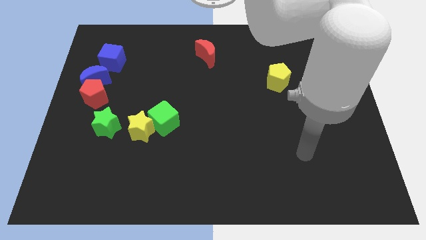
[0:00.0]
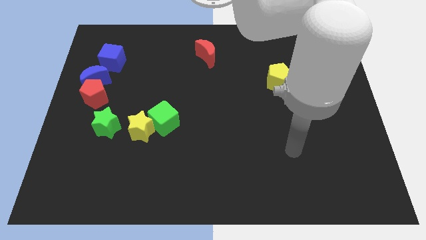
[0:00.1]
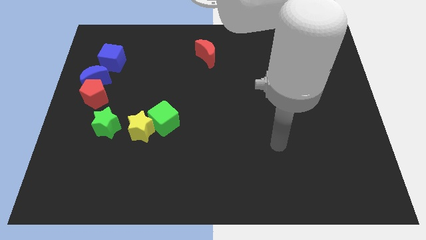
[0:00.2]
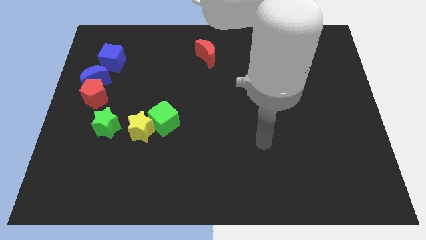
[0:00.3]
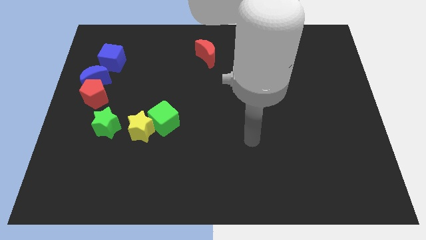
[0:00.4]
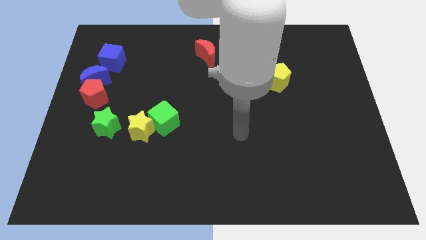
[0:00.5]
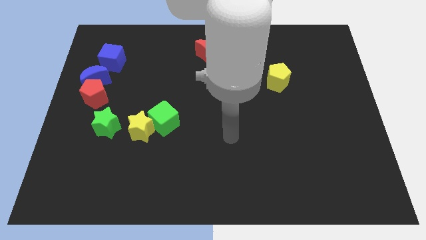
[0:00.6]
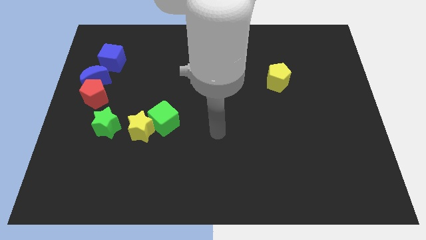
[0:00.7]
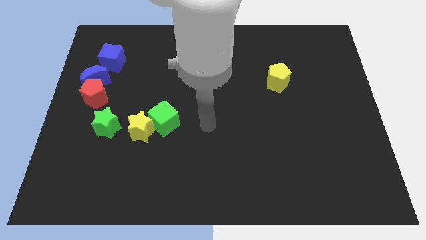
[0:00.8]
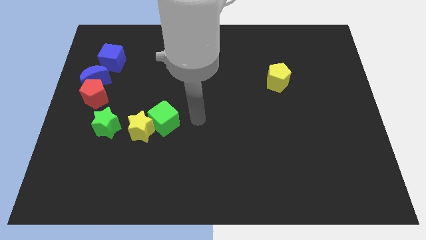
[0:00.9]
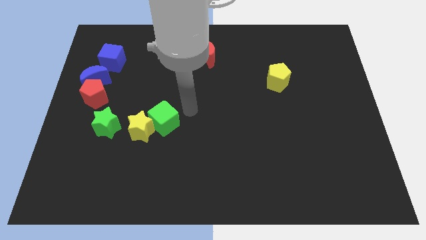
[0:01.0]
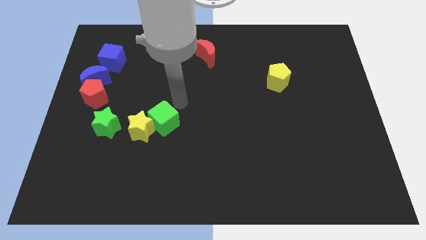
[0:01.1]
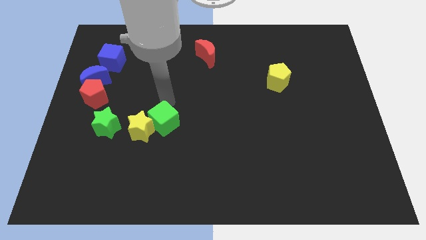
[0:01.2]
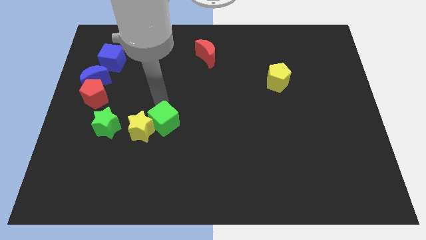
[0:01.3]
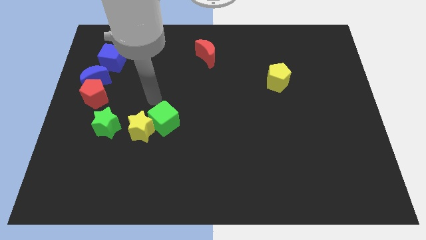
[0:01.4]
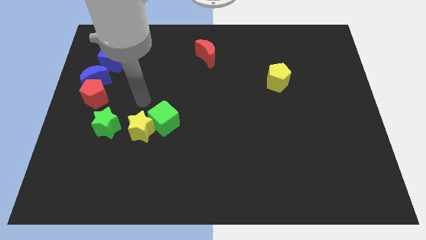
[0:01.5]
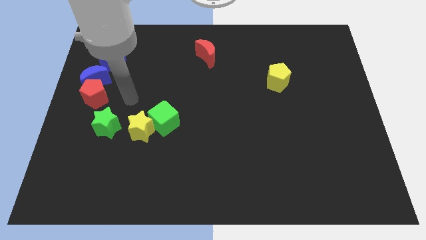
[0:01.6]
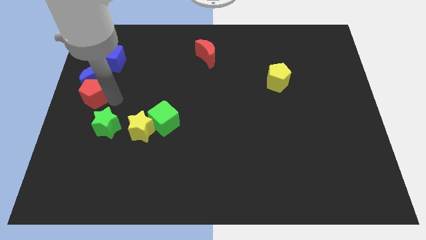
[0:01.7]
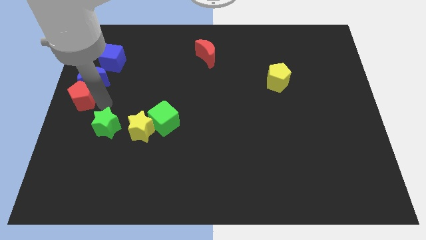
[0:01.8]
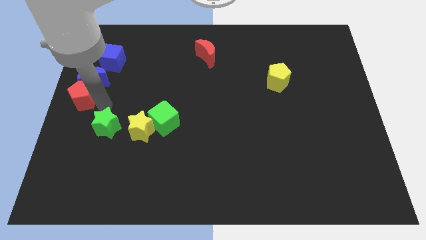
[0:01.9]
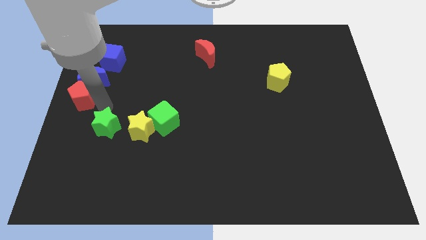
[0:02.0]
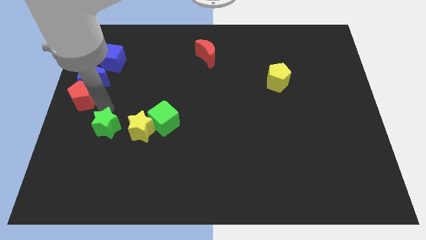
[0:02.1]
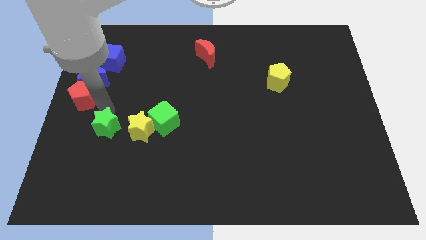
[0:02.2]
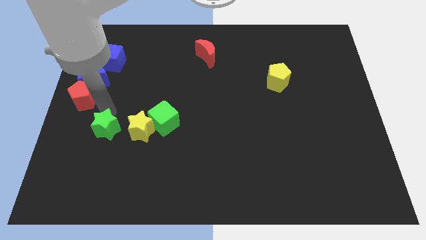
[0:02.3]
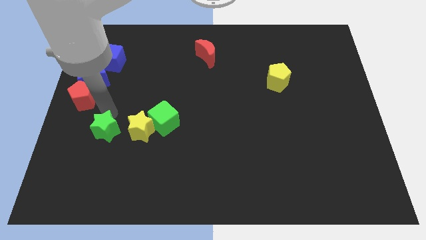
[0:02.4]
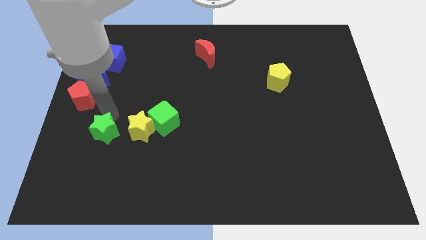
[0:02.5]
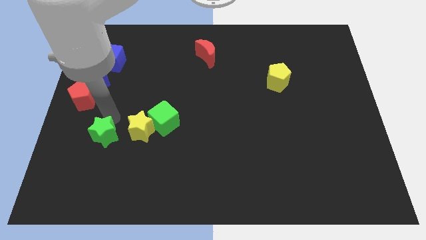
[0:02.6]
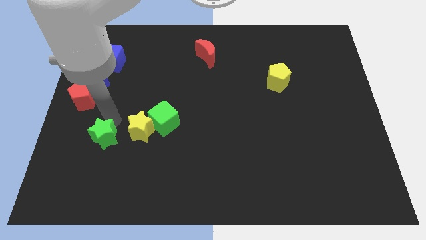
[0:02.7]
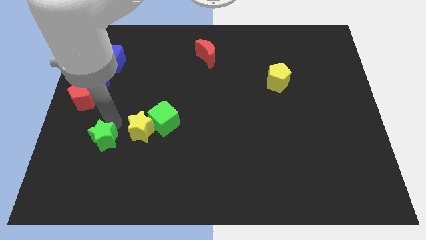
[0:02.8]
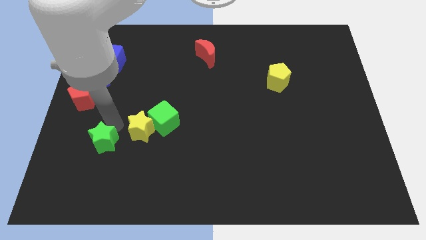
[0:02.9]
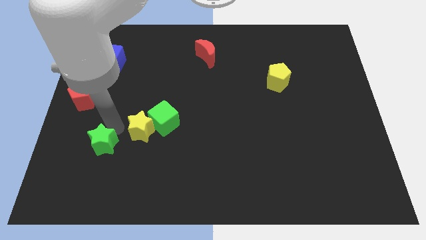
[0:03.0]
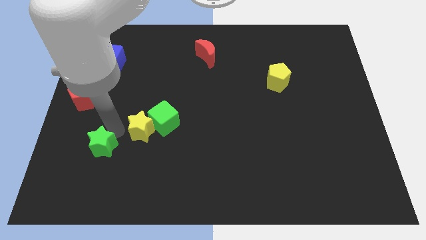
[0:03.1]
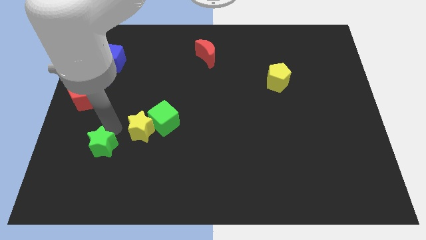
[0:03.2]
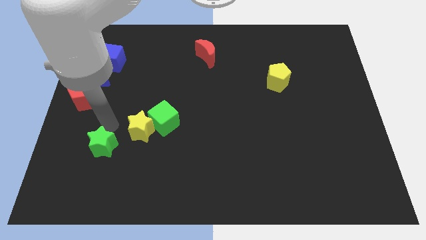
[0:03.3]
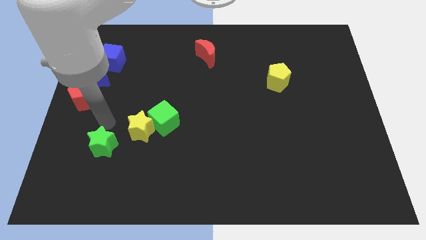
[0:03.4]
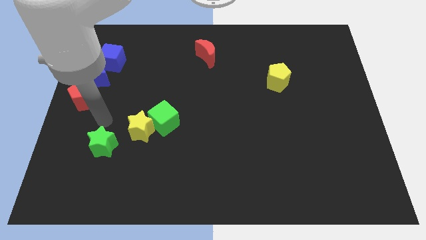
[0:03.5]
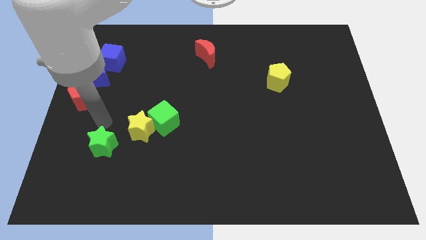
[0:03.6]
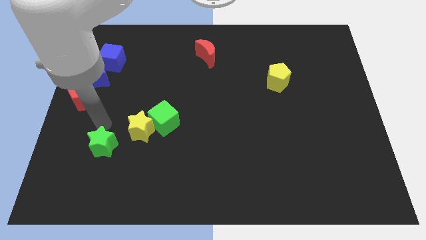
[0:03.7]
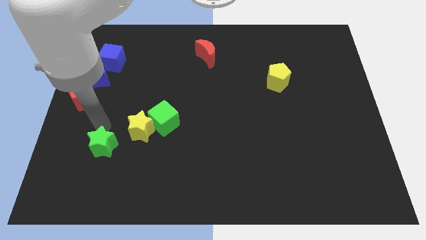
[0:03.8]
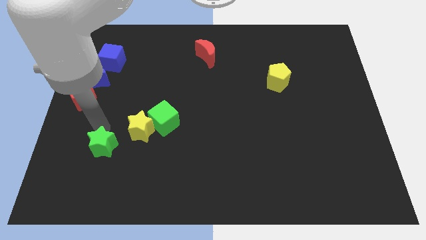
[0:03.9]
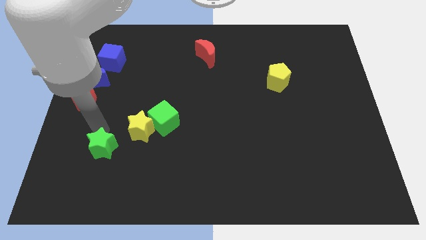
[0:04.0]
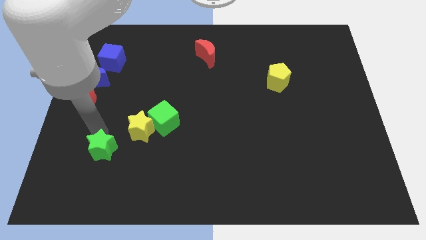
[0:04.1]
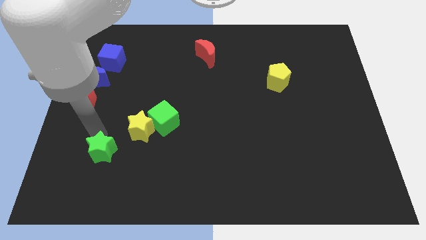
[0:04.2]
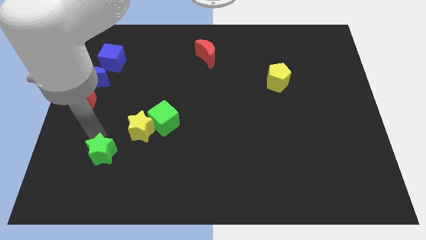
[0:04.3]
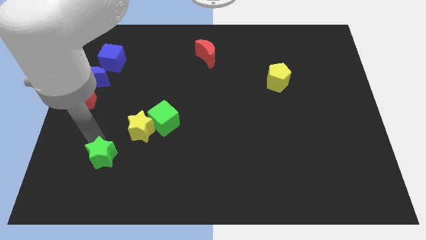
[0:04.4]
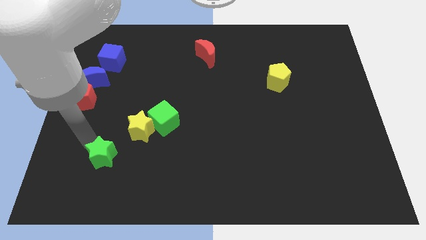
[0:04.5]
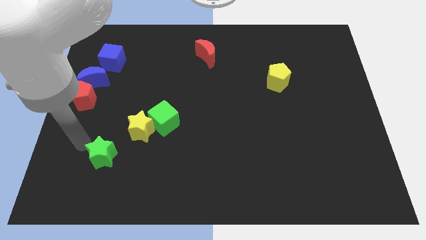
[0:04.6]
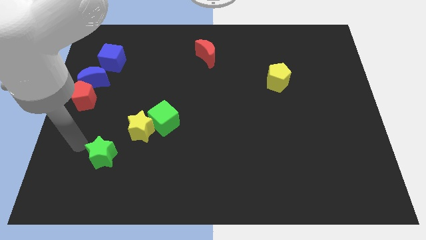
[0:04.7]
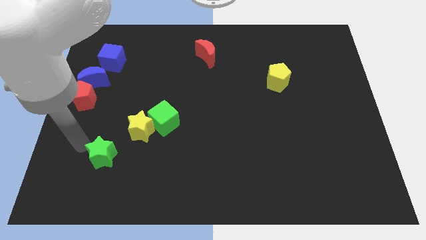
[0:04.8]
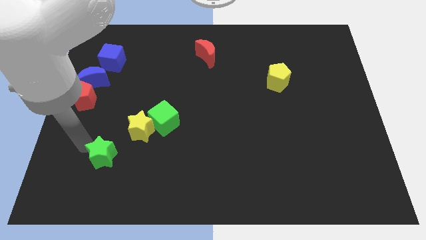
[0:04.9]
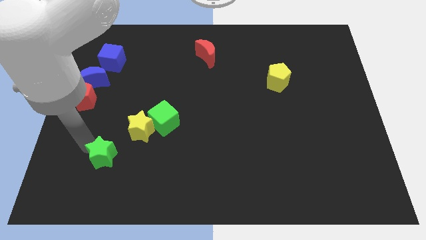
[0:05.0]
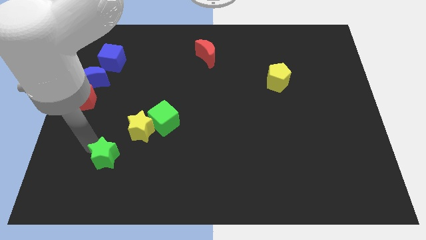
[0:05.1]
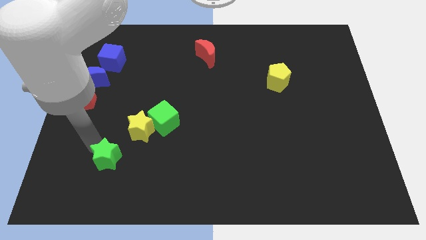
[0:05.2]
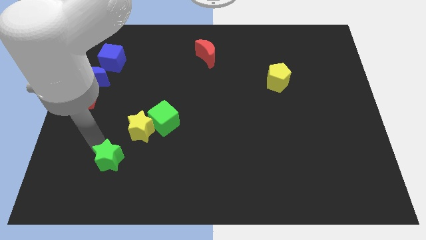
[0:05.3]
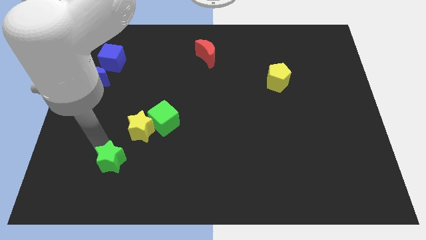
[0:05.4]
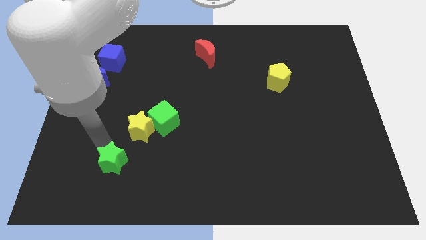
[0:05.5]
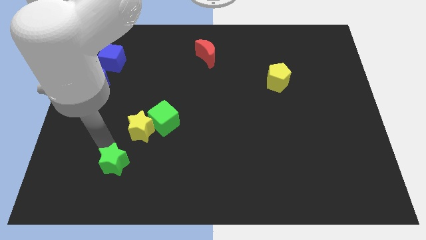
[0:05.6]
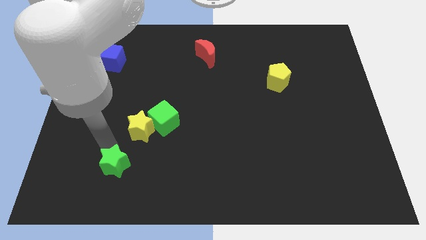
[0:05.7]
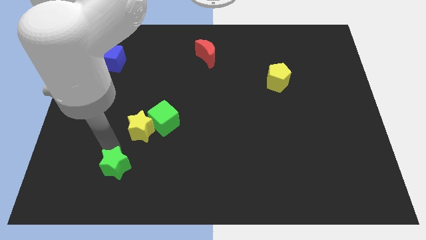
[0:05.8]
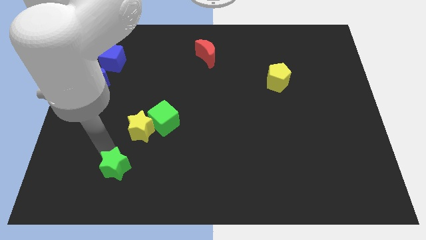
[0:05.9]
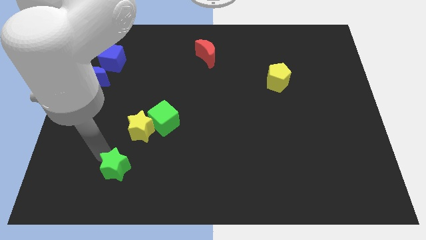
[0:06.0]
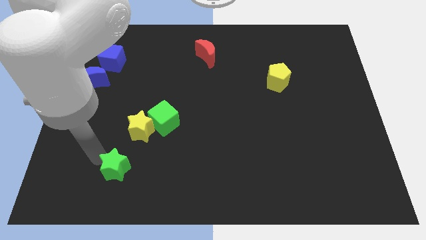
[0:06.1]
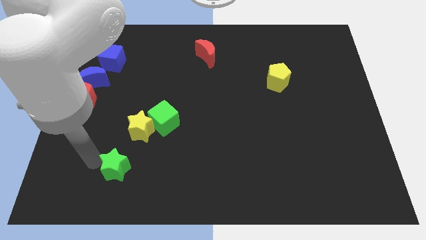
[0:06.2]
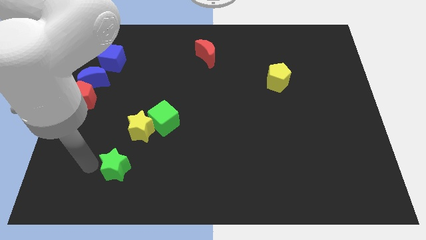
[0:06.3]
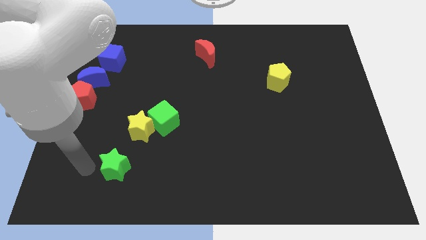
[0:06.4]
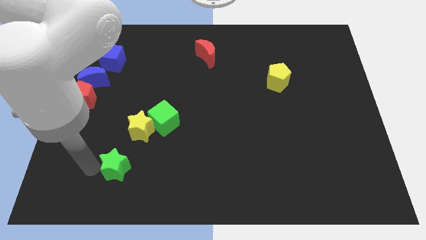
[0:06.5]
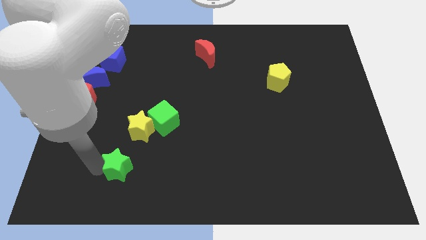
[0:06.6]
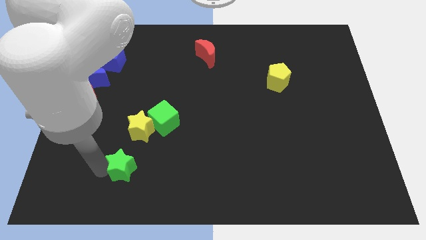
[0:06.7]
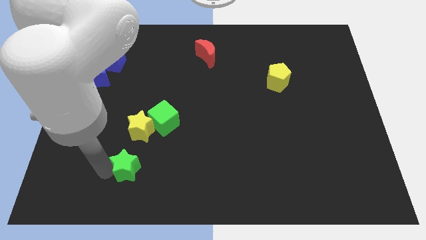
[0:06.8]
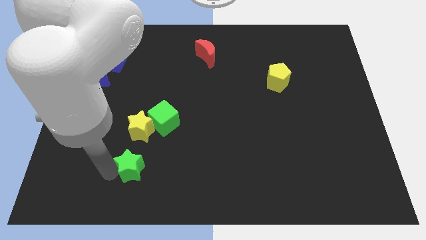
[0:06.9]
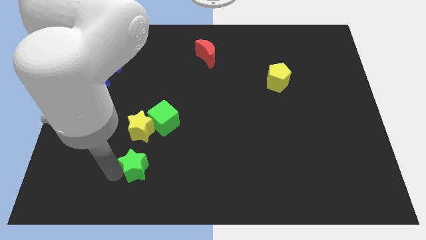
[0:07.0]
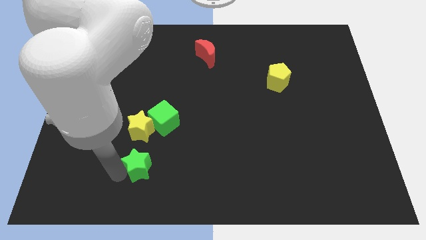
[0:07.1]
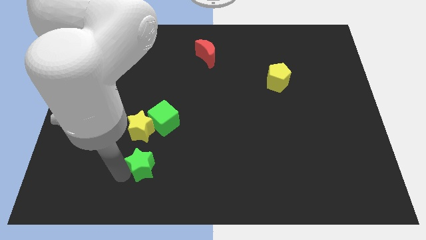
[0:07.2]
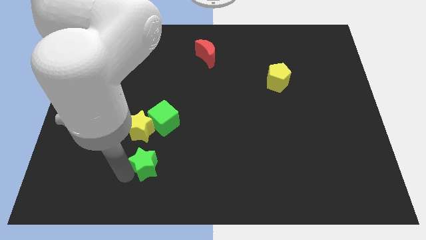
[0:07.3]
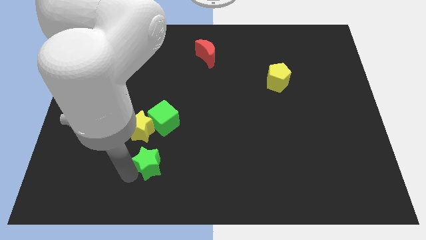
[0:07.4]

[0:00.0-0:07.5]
move the green star to the bottom right of the yellow star
